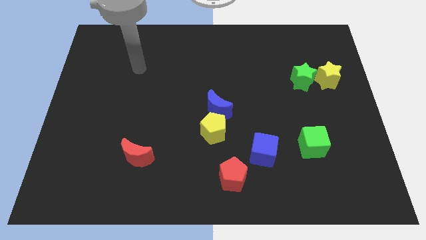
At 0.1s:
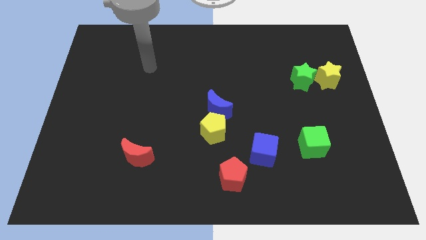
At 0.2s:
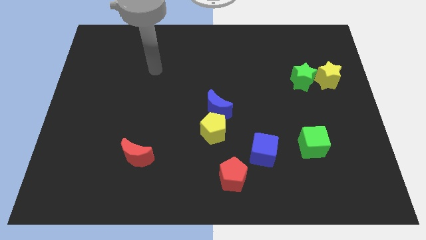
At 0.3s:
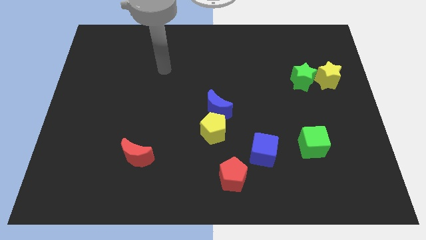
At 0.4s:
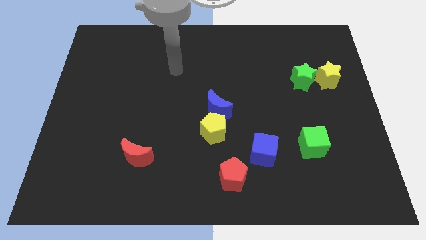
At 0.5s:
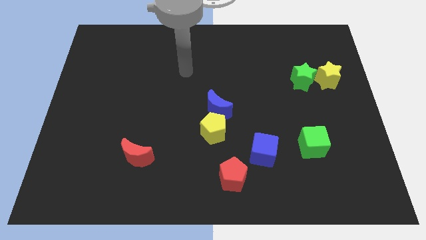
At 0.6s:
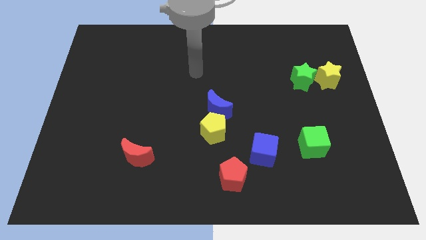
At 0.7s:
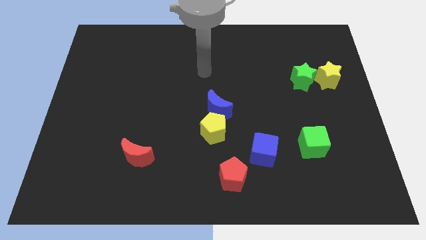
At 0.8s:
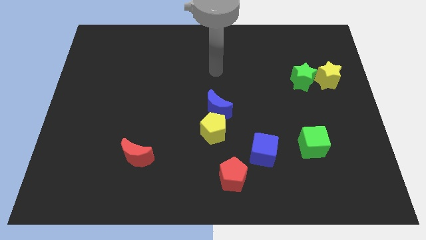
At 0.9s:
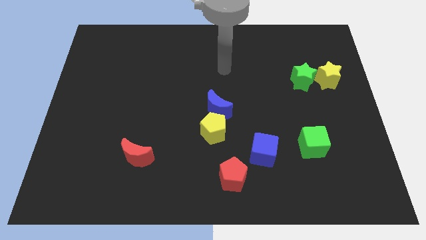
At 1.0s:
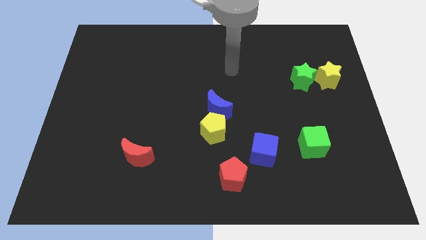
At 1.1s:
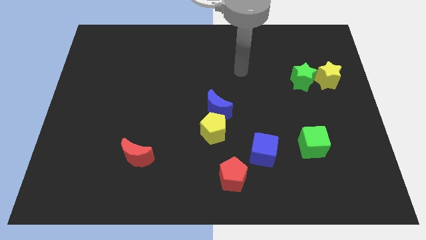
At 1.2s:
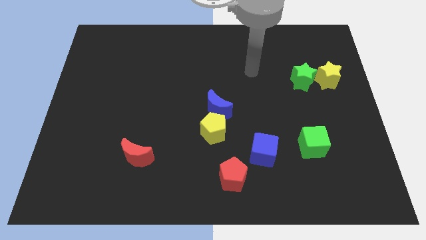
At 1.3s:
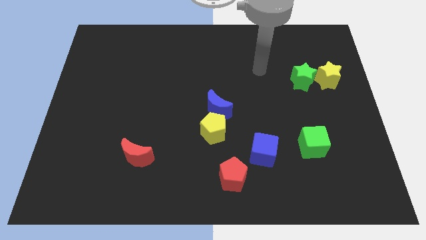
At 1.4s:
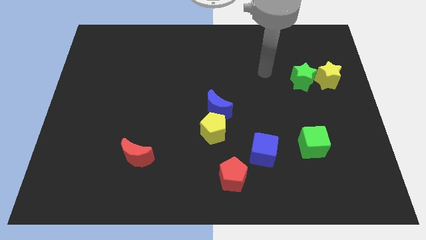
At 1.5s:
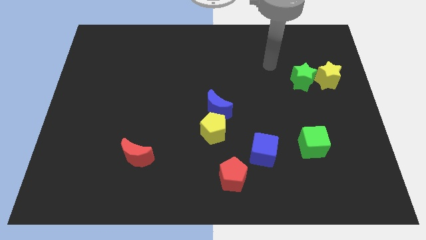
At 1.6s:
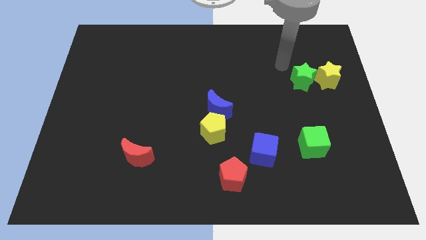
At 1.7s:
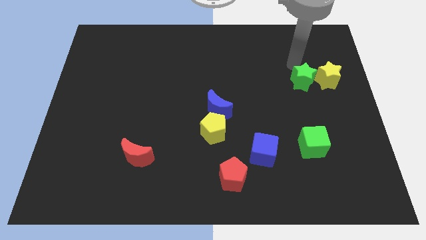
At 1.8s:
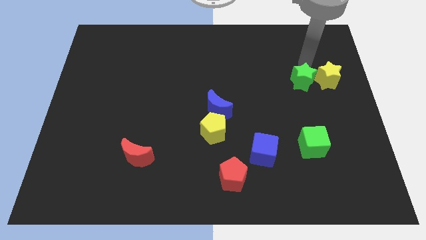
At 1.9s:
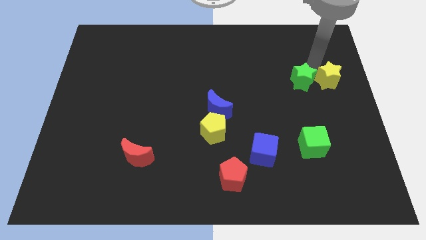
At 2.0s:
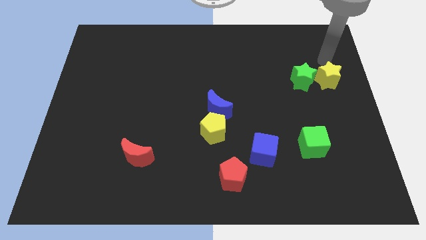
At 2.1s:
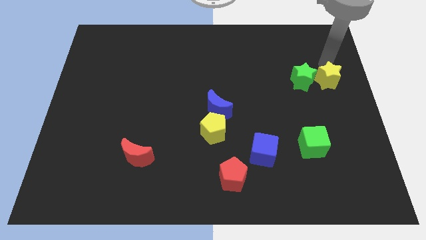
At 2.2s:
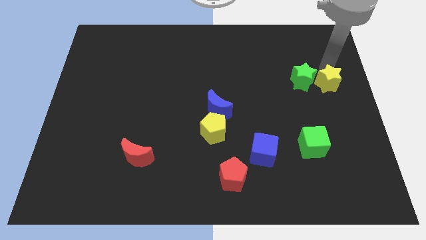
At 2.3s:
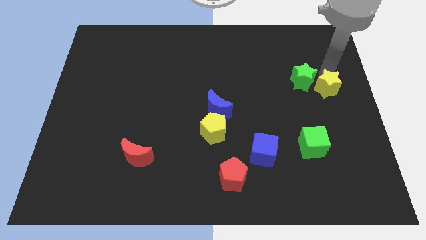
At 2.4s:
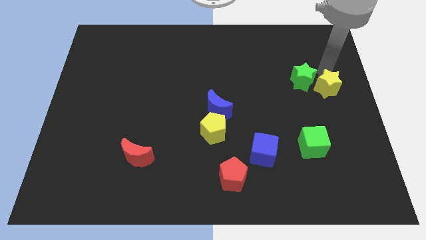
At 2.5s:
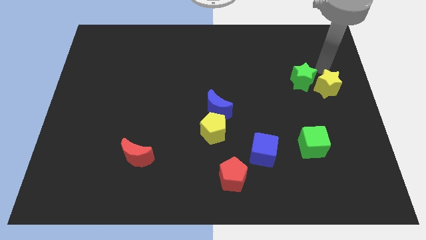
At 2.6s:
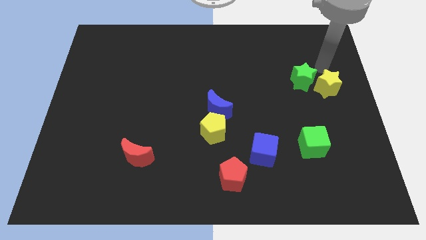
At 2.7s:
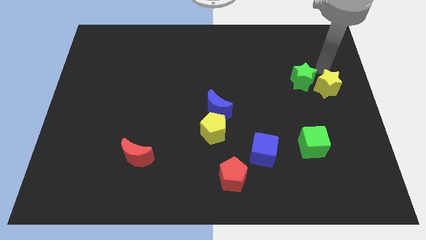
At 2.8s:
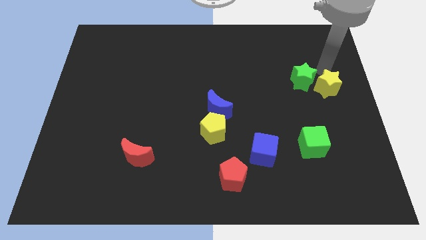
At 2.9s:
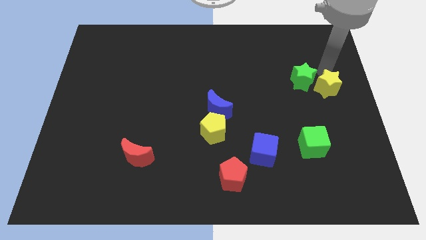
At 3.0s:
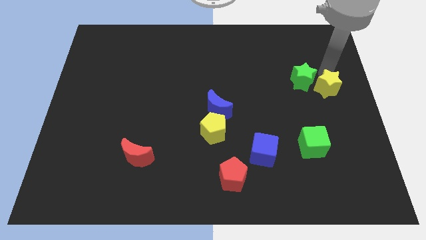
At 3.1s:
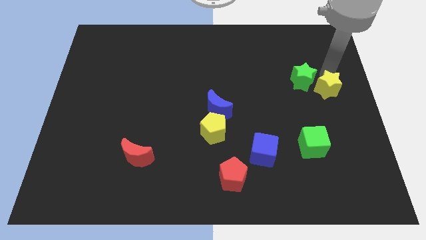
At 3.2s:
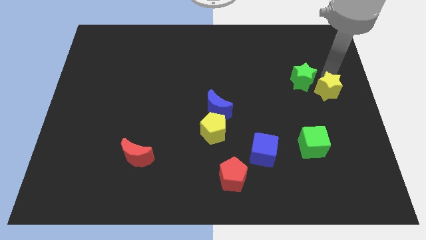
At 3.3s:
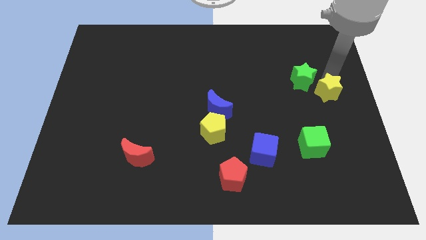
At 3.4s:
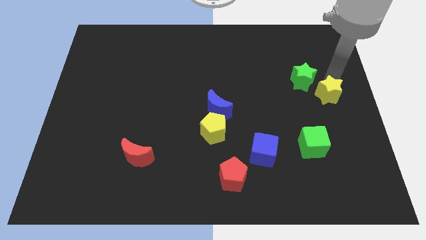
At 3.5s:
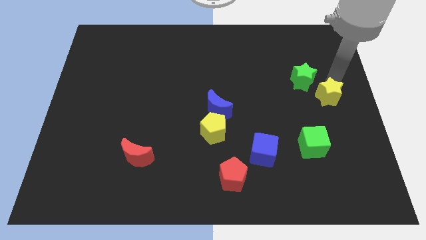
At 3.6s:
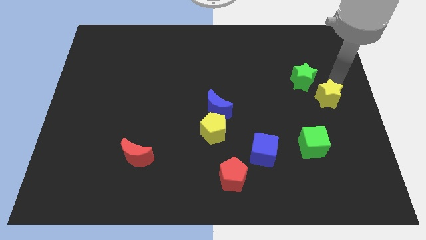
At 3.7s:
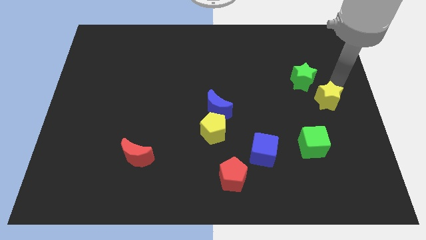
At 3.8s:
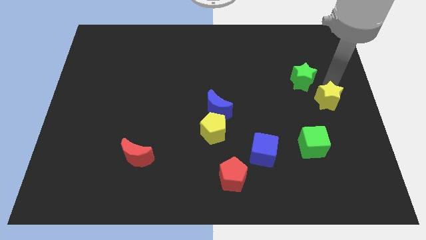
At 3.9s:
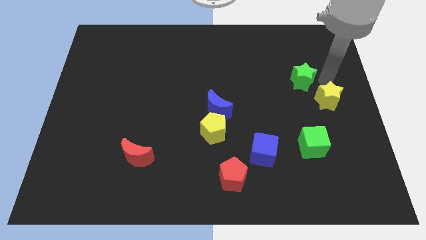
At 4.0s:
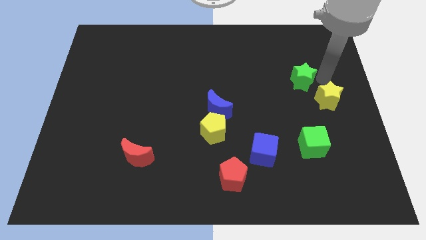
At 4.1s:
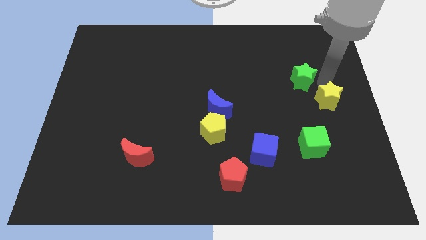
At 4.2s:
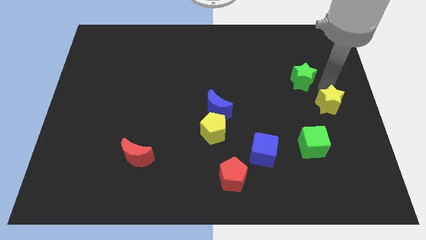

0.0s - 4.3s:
slightly slide the yellow star down

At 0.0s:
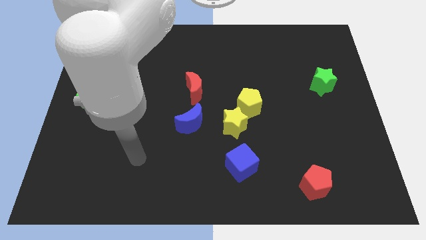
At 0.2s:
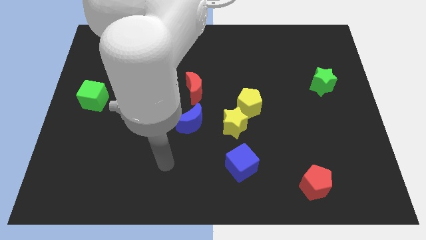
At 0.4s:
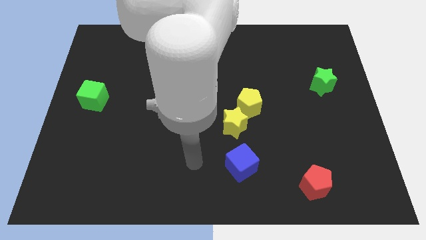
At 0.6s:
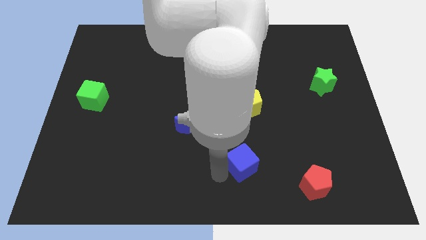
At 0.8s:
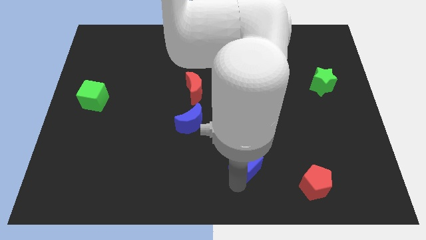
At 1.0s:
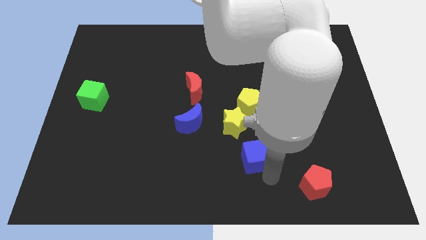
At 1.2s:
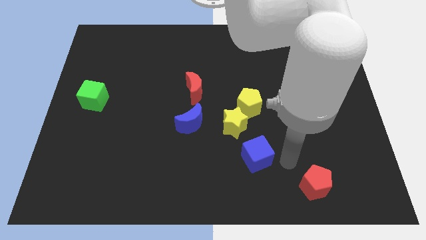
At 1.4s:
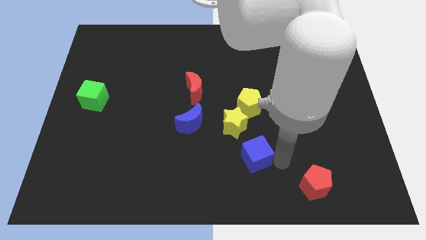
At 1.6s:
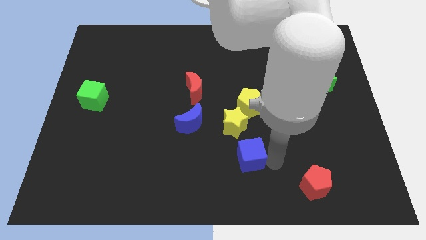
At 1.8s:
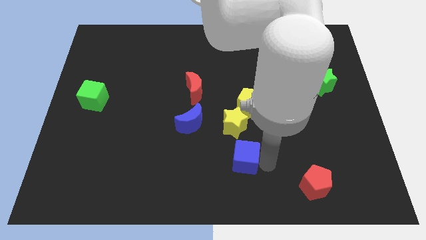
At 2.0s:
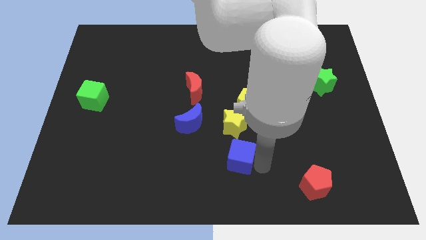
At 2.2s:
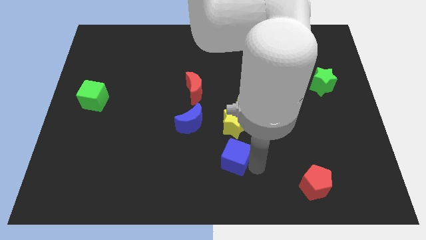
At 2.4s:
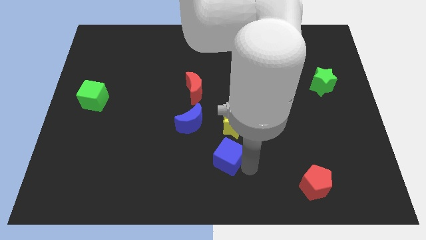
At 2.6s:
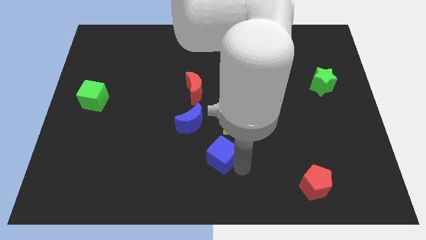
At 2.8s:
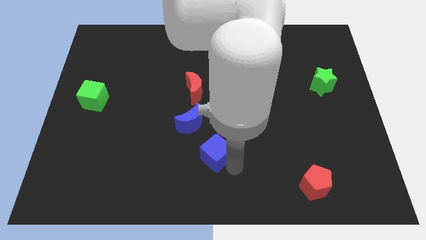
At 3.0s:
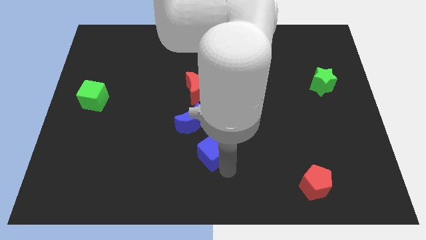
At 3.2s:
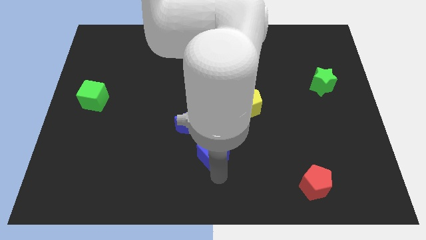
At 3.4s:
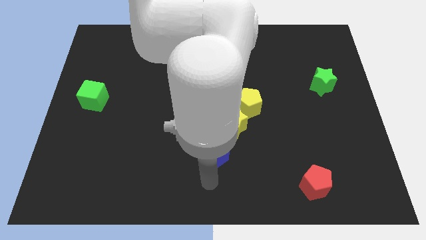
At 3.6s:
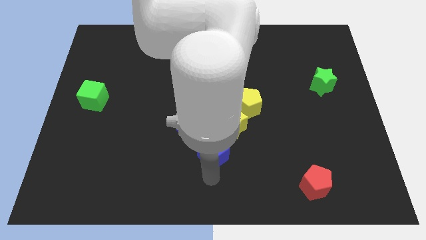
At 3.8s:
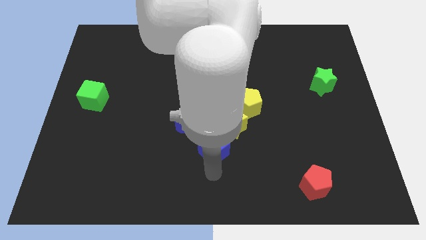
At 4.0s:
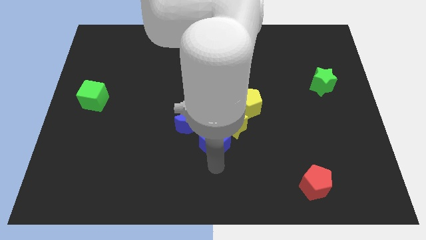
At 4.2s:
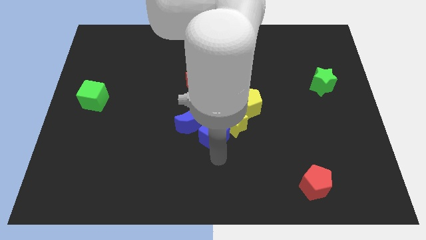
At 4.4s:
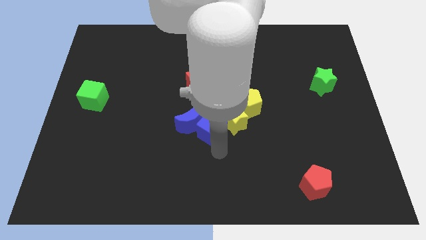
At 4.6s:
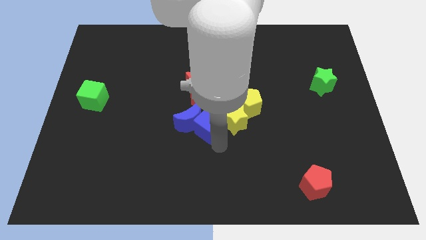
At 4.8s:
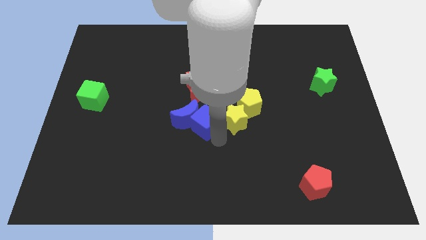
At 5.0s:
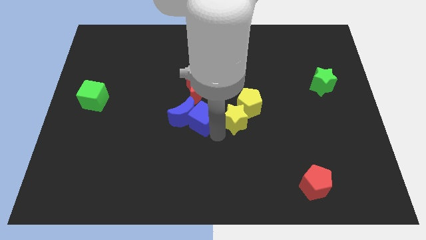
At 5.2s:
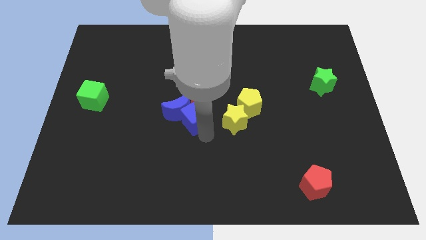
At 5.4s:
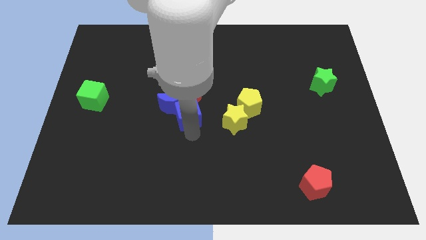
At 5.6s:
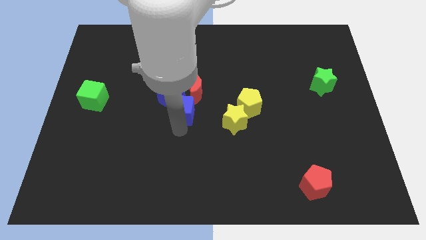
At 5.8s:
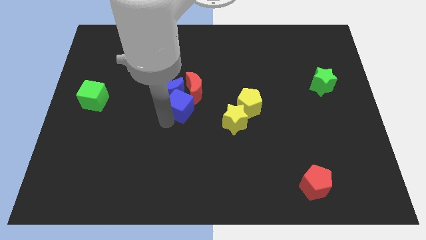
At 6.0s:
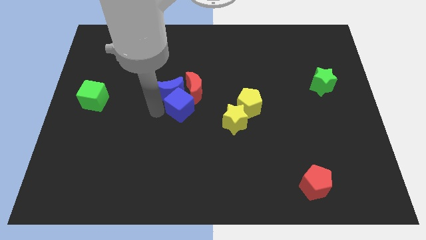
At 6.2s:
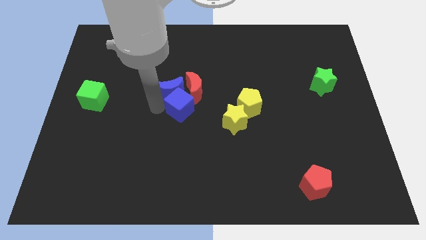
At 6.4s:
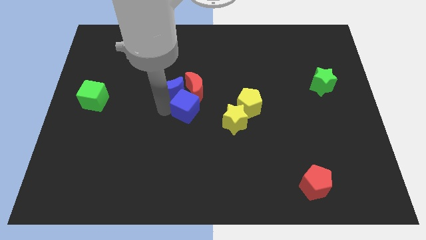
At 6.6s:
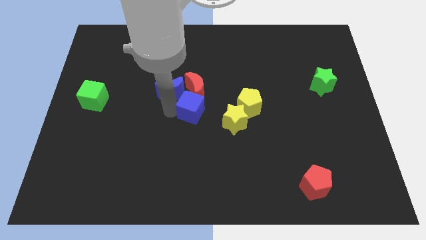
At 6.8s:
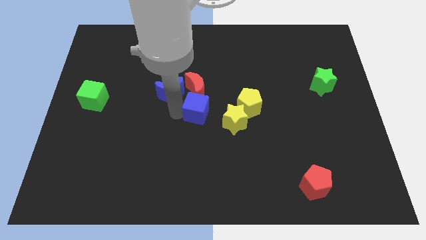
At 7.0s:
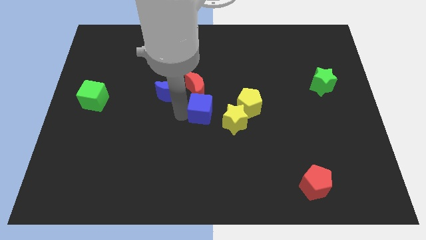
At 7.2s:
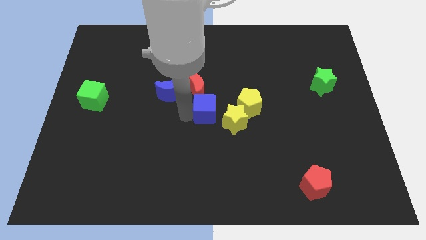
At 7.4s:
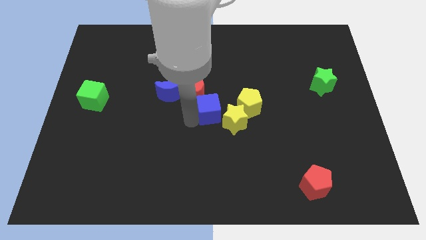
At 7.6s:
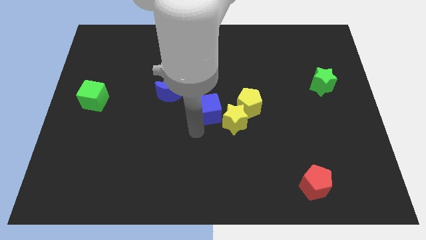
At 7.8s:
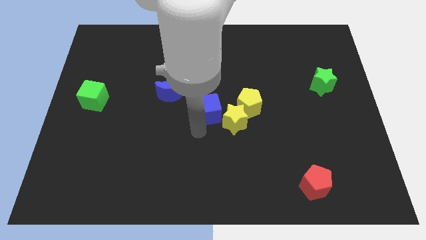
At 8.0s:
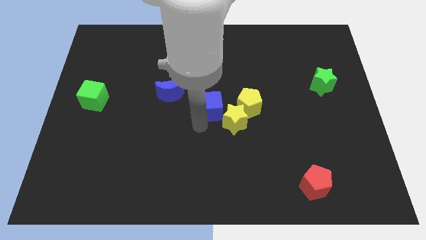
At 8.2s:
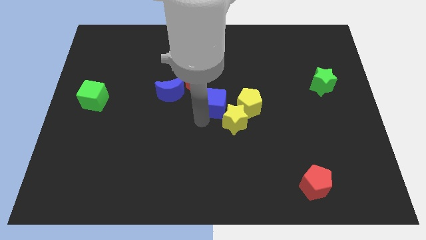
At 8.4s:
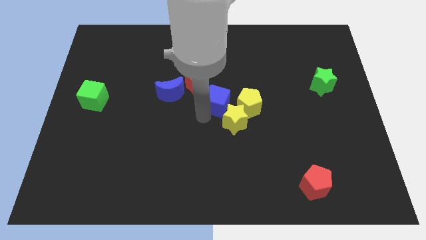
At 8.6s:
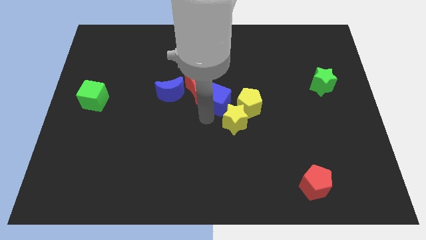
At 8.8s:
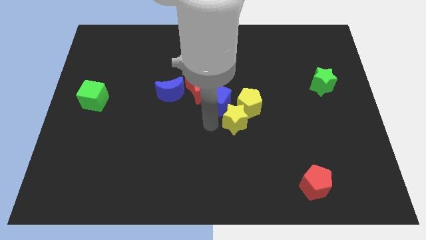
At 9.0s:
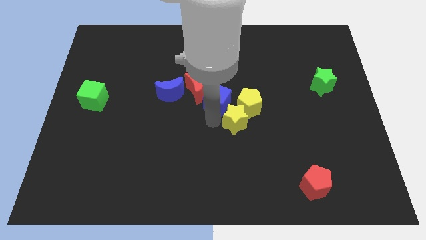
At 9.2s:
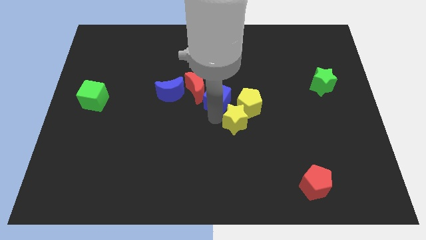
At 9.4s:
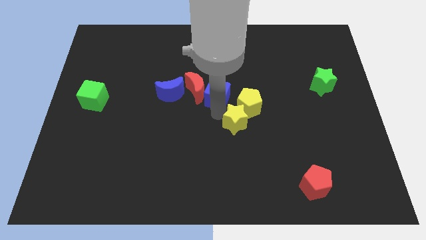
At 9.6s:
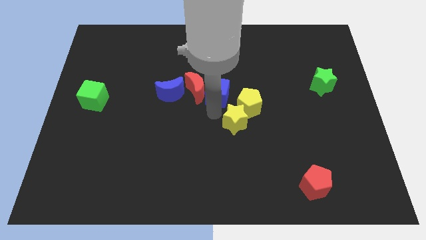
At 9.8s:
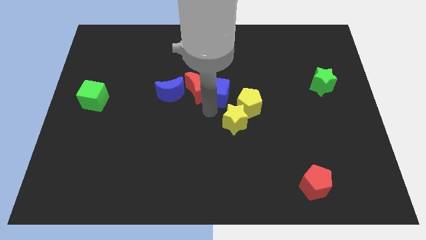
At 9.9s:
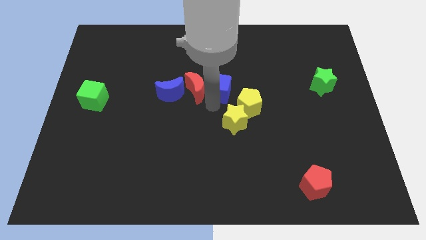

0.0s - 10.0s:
move the blue cube up
